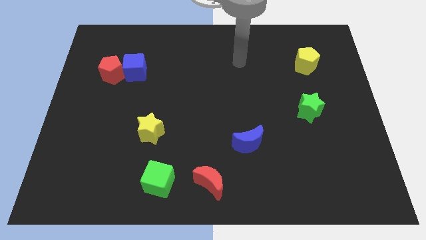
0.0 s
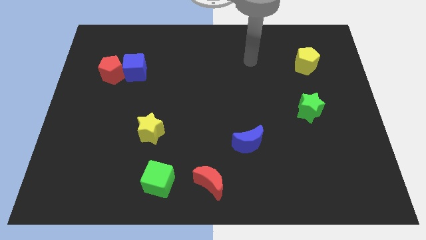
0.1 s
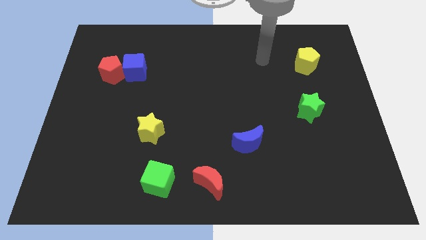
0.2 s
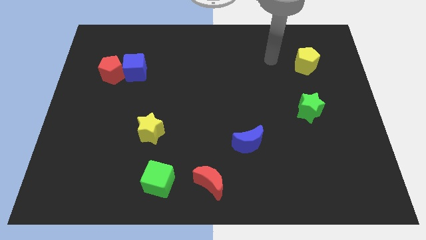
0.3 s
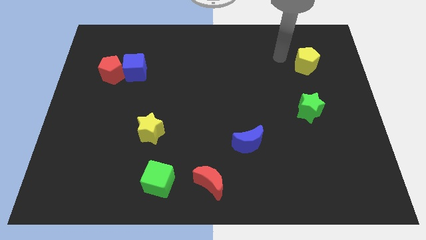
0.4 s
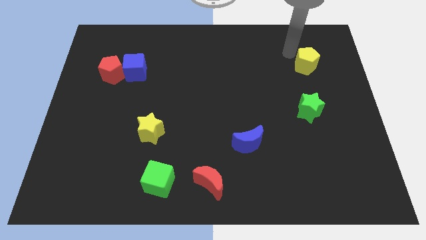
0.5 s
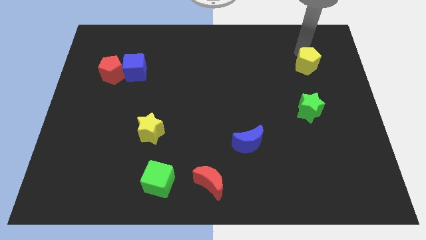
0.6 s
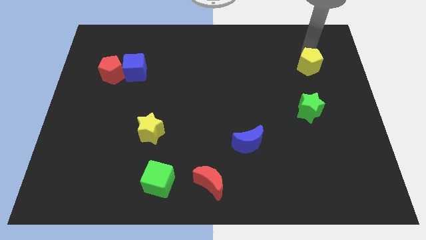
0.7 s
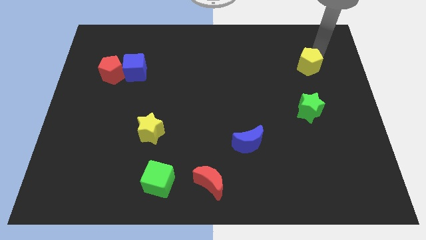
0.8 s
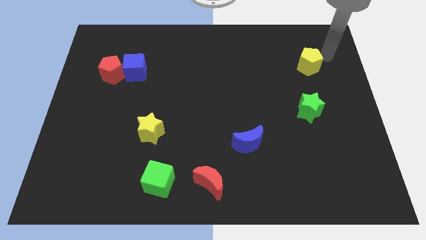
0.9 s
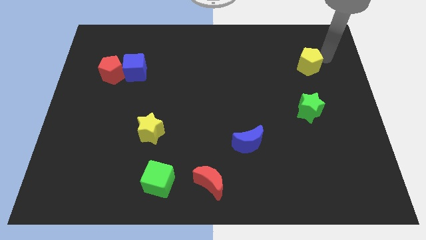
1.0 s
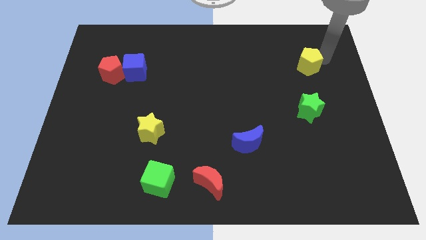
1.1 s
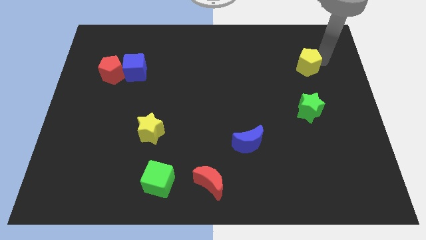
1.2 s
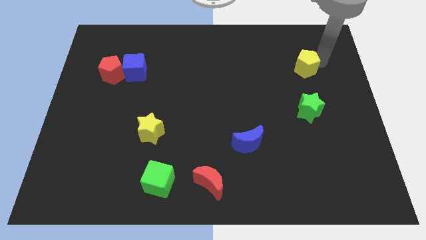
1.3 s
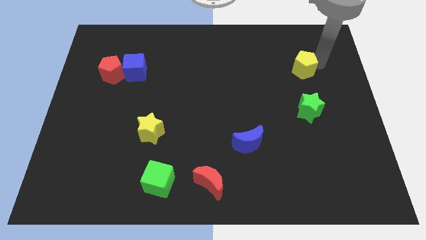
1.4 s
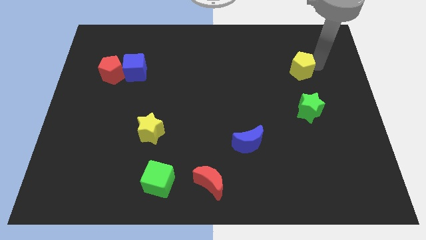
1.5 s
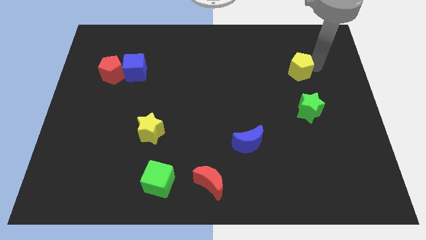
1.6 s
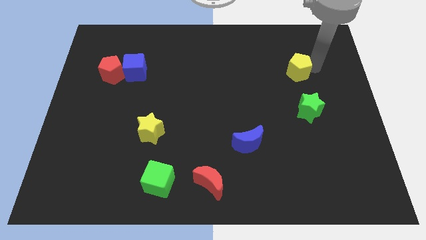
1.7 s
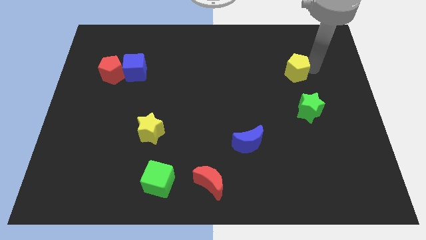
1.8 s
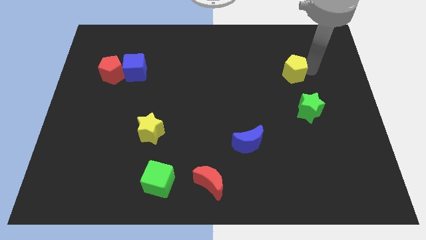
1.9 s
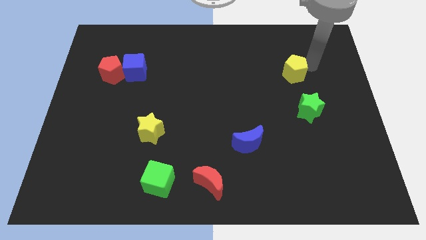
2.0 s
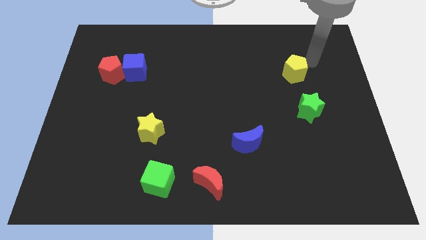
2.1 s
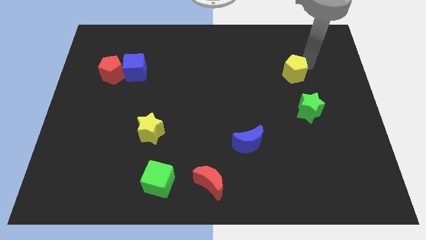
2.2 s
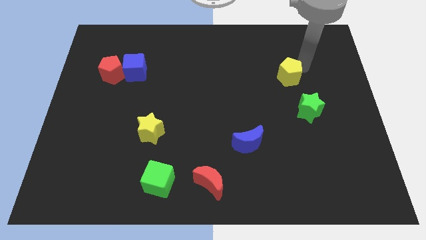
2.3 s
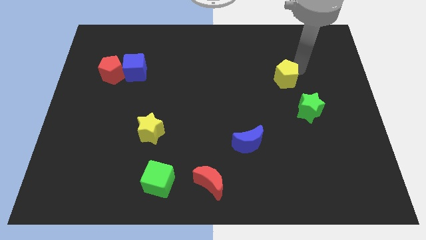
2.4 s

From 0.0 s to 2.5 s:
slightly move the yellow pentagon downwards and then to the left

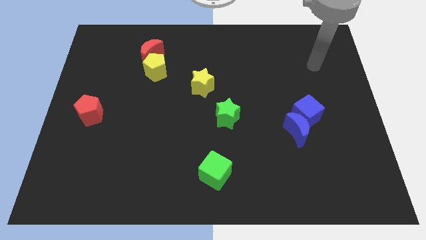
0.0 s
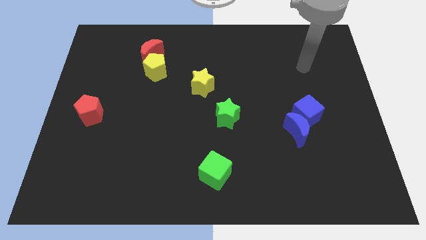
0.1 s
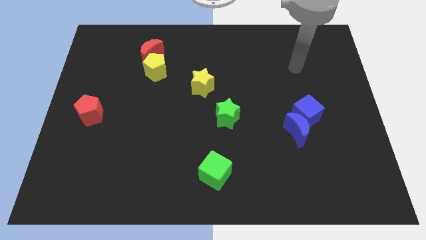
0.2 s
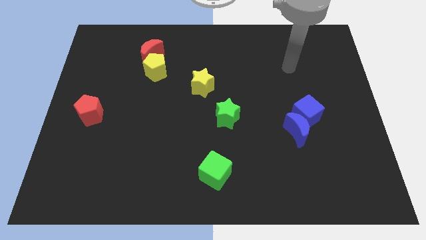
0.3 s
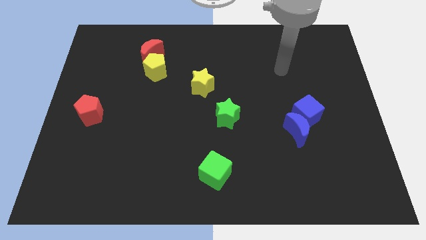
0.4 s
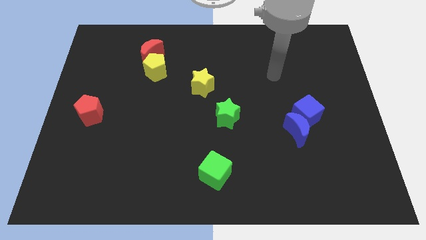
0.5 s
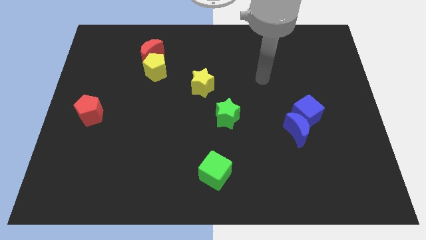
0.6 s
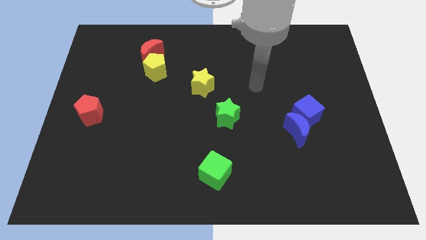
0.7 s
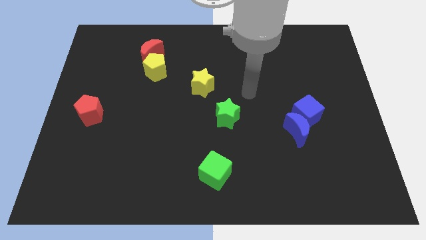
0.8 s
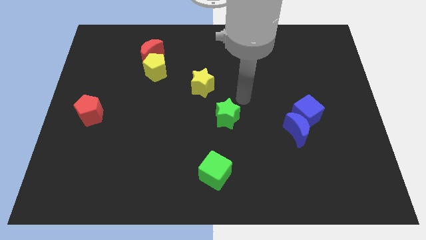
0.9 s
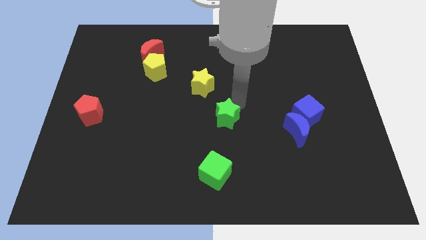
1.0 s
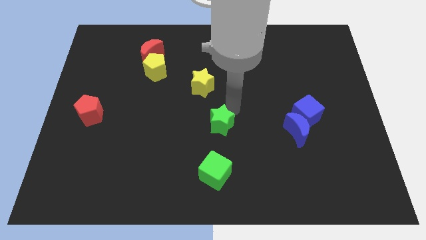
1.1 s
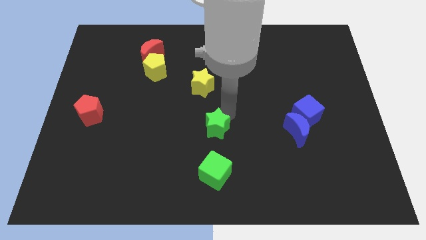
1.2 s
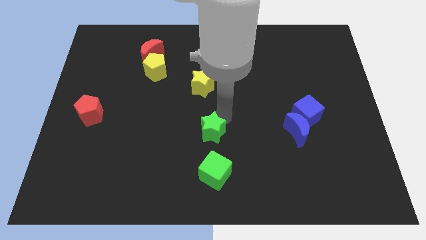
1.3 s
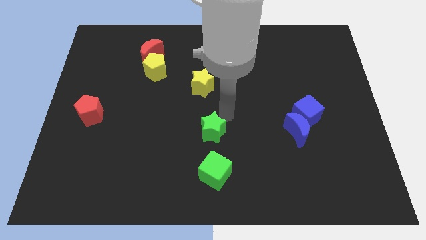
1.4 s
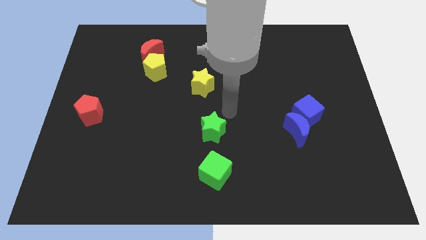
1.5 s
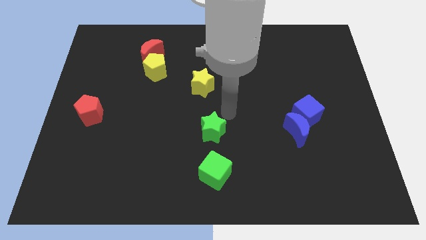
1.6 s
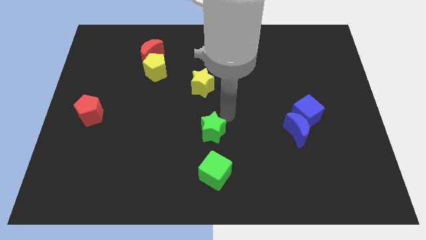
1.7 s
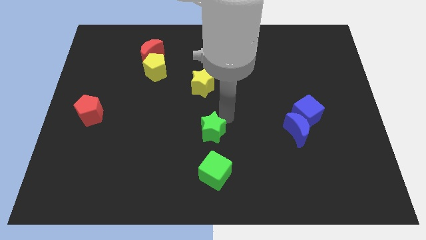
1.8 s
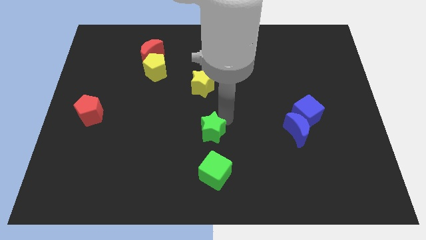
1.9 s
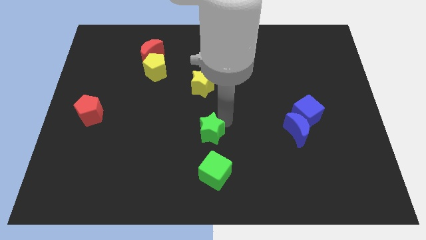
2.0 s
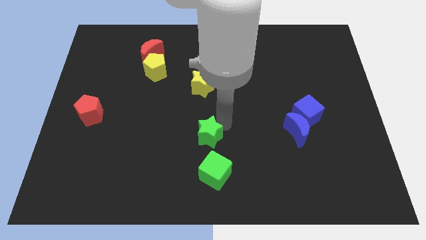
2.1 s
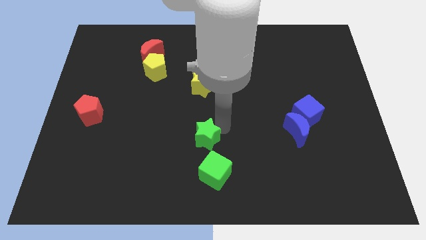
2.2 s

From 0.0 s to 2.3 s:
move the green star diagonally down and left slightly

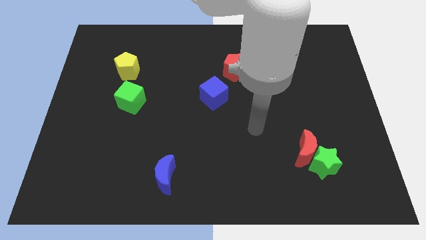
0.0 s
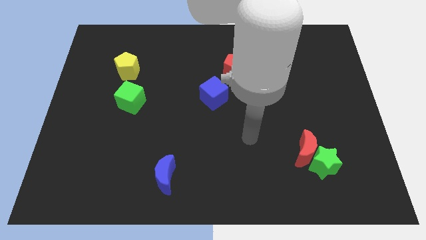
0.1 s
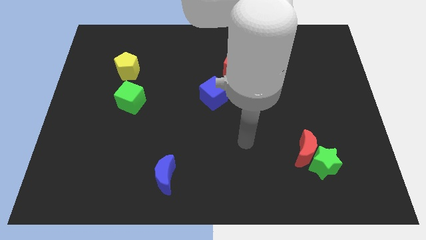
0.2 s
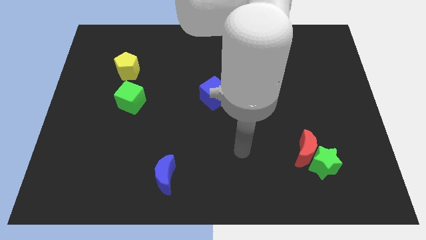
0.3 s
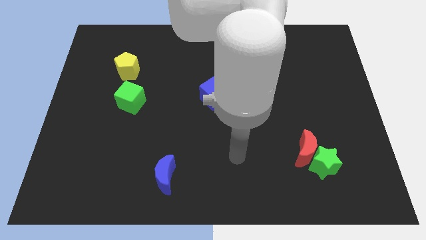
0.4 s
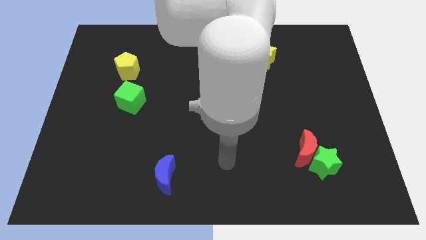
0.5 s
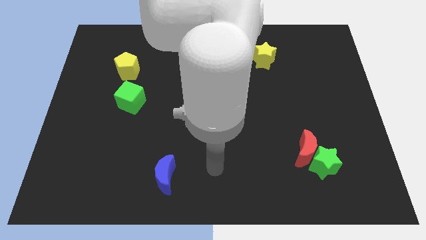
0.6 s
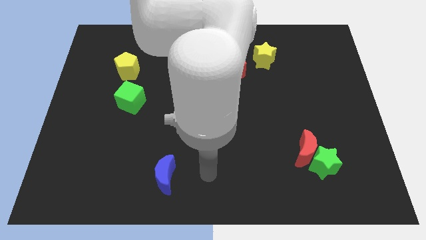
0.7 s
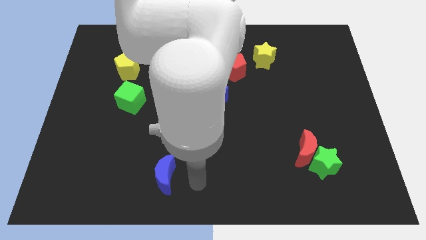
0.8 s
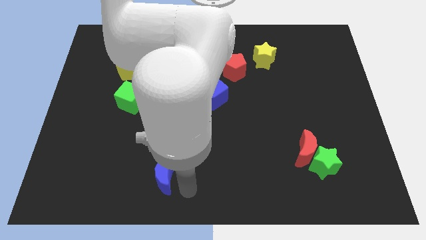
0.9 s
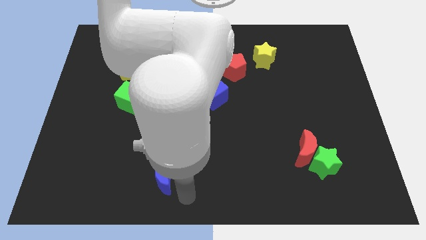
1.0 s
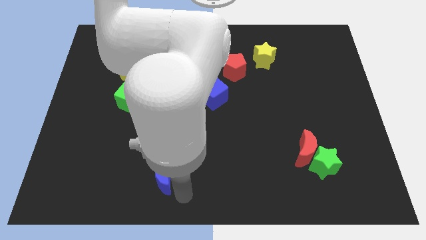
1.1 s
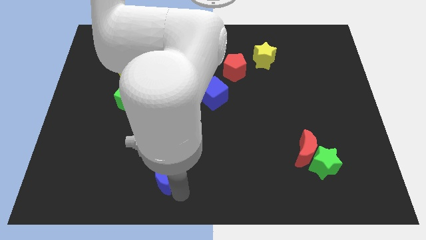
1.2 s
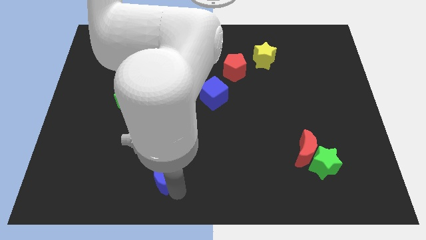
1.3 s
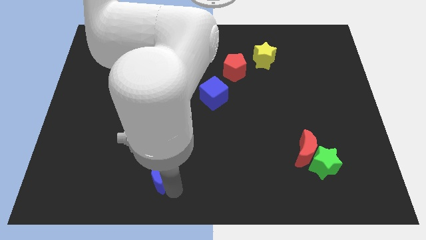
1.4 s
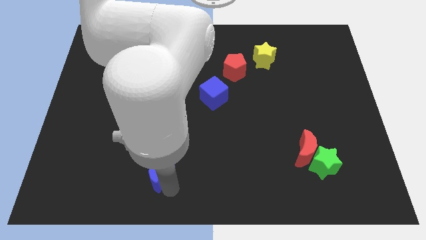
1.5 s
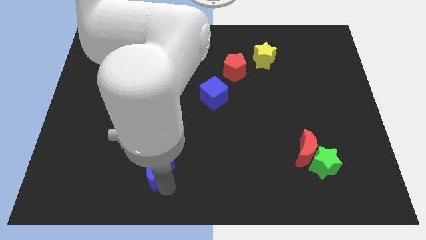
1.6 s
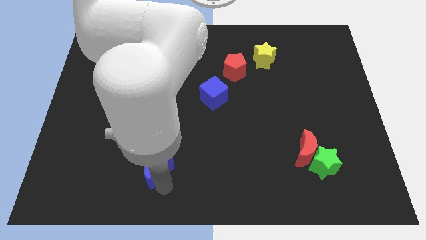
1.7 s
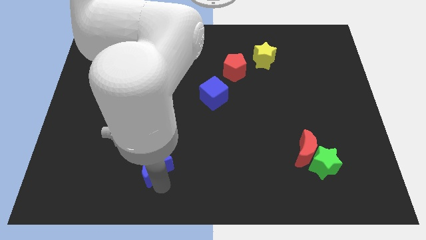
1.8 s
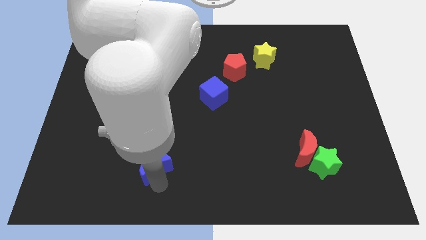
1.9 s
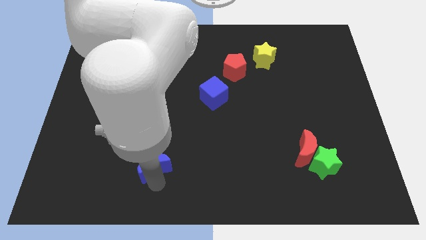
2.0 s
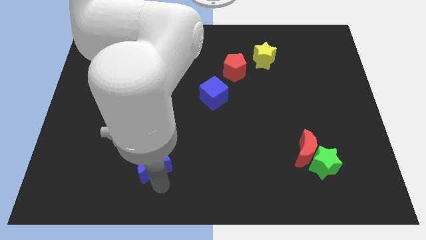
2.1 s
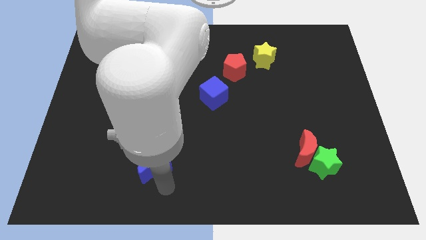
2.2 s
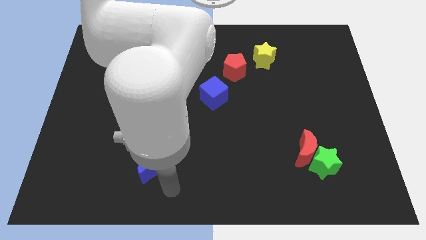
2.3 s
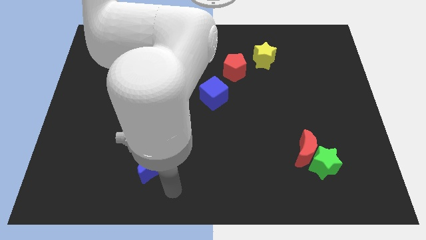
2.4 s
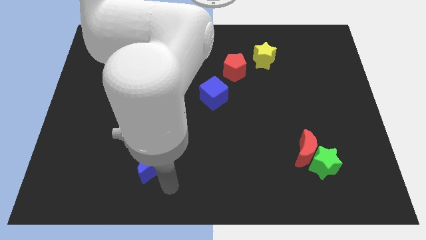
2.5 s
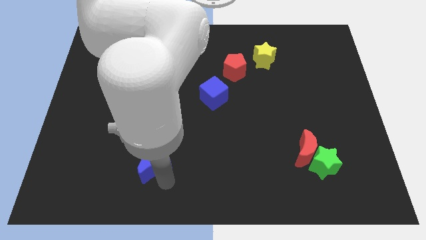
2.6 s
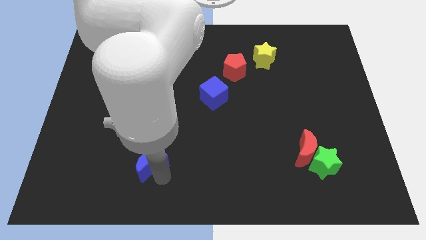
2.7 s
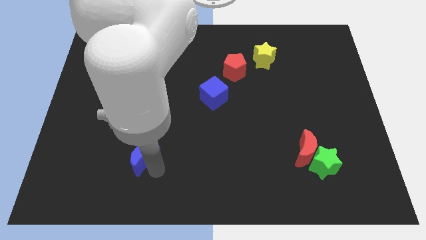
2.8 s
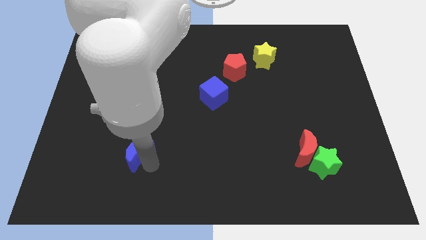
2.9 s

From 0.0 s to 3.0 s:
push the blue moon a little up and to the left diagonally

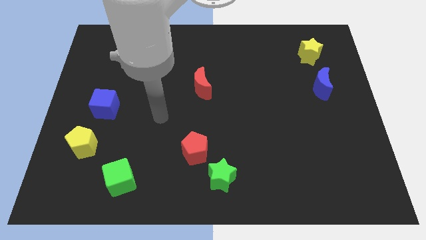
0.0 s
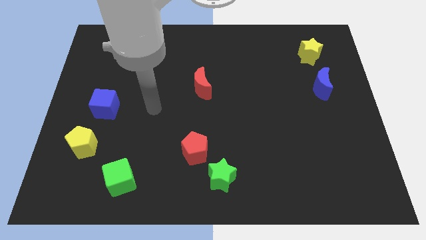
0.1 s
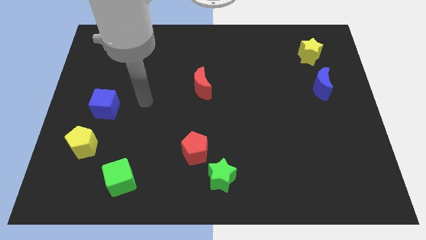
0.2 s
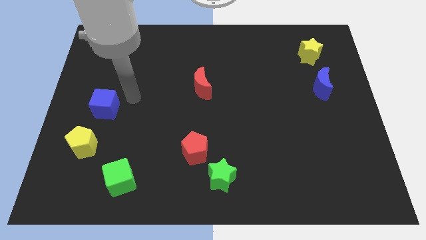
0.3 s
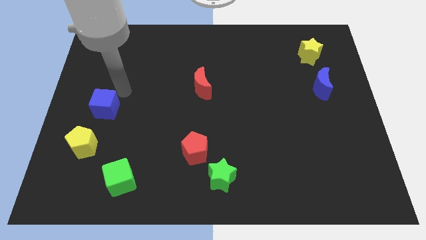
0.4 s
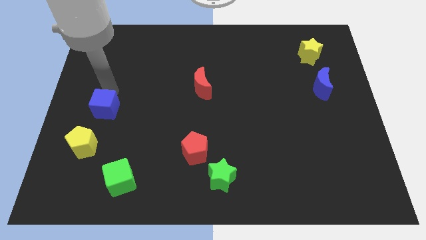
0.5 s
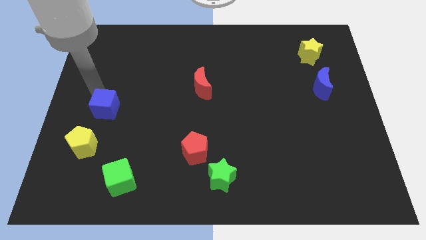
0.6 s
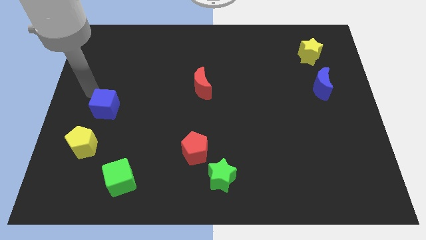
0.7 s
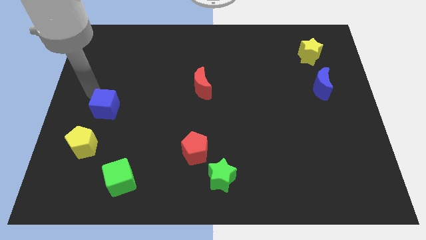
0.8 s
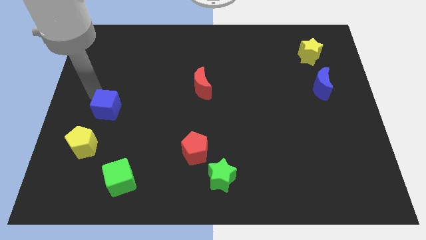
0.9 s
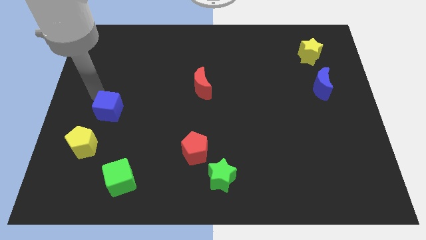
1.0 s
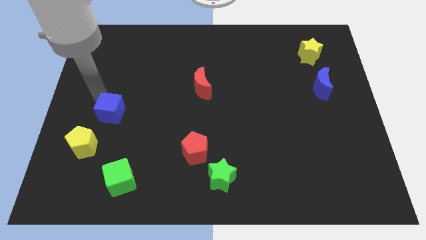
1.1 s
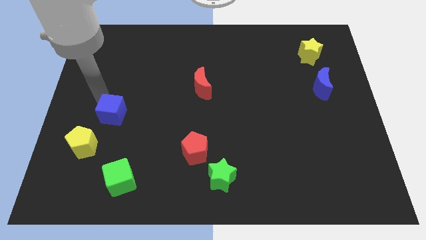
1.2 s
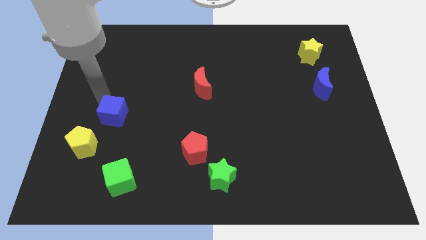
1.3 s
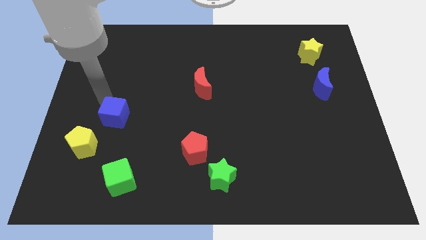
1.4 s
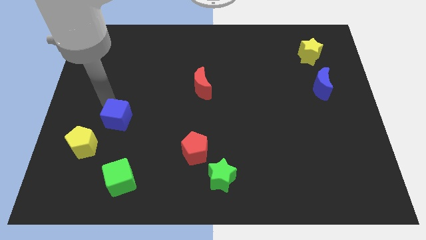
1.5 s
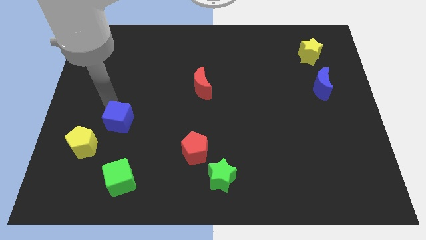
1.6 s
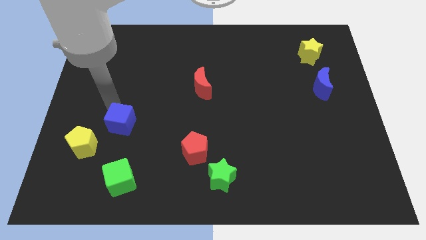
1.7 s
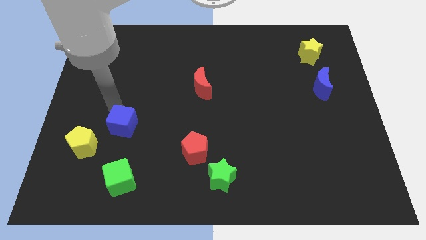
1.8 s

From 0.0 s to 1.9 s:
push the blue cube down and to the right diagonally slightly
